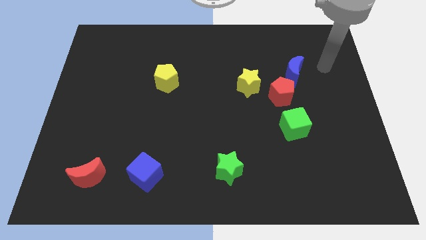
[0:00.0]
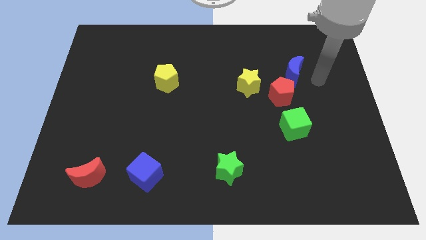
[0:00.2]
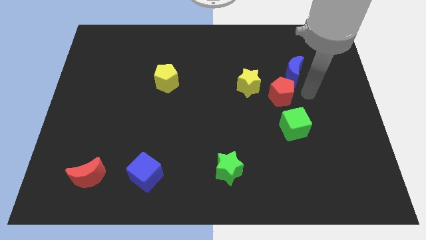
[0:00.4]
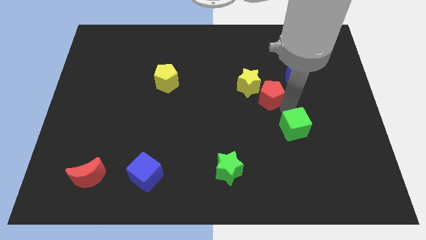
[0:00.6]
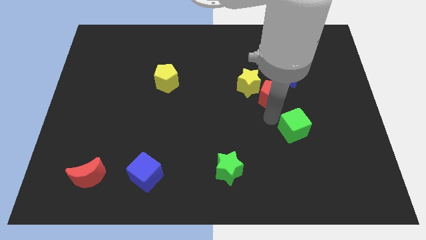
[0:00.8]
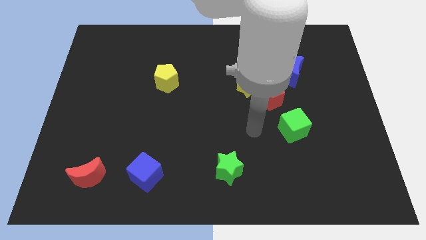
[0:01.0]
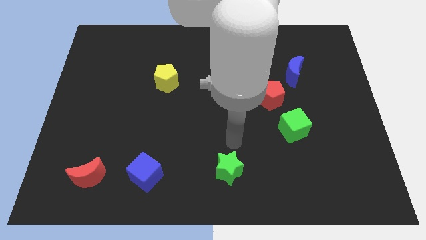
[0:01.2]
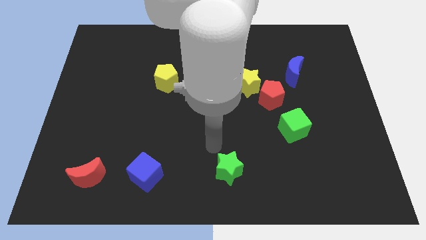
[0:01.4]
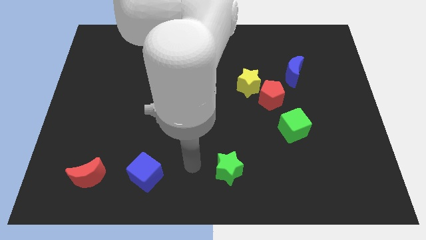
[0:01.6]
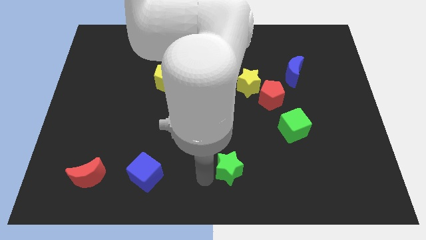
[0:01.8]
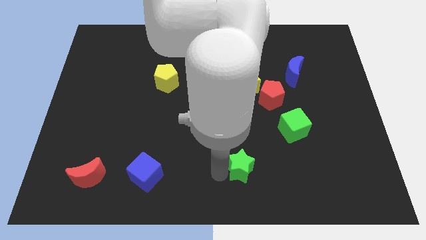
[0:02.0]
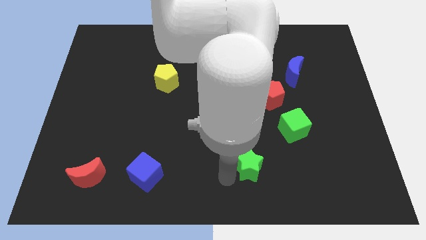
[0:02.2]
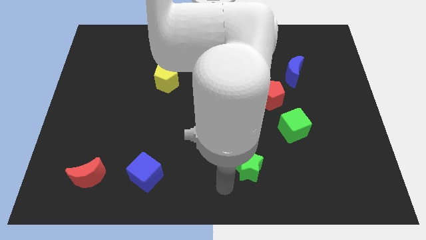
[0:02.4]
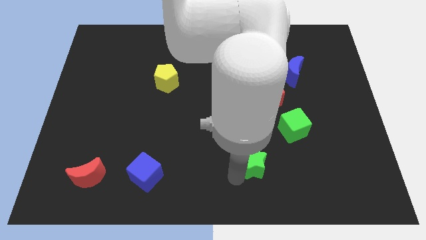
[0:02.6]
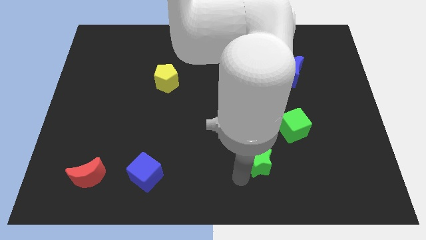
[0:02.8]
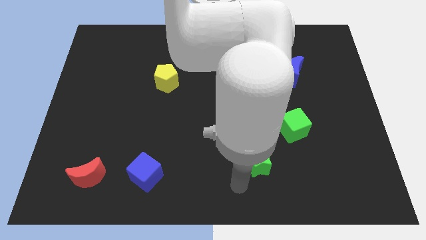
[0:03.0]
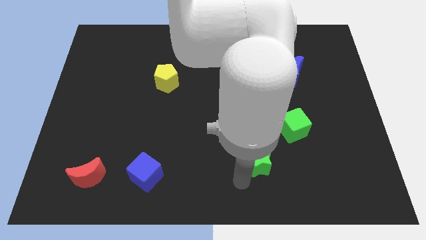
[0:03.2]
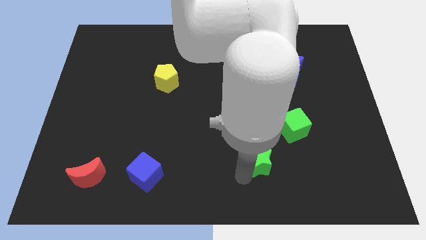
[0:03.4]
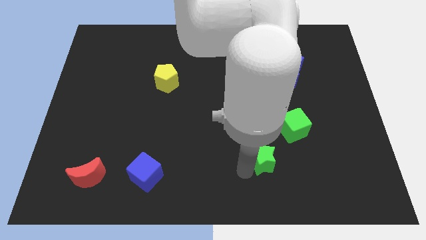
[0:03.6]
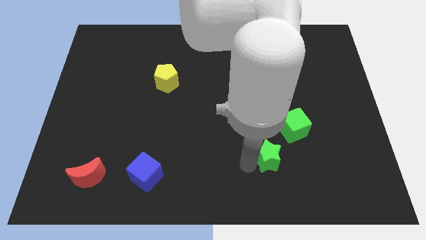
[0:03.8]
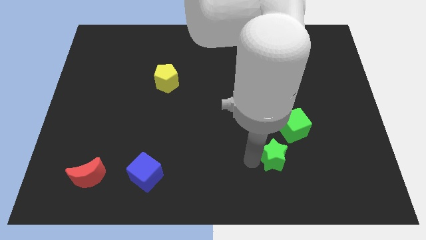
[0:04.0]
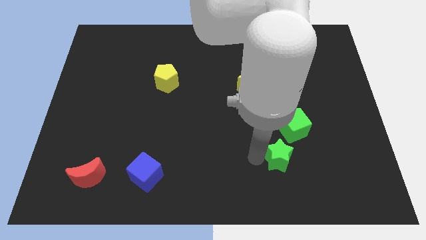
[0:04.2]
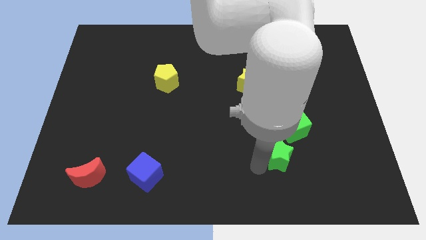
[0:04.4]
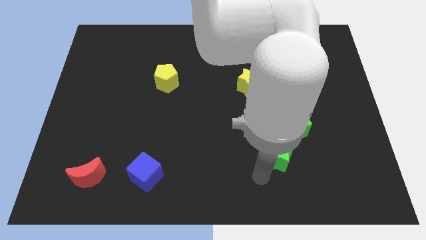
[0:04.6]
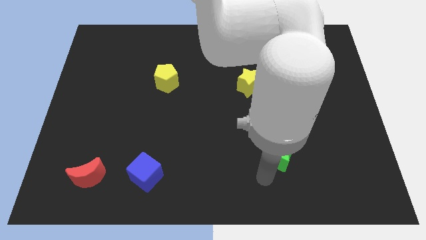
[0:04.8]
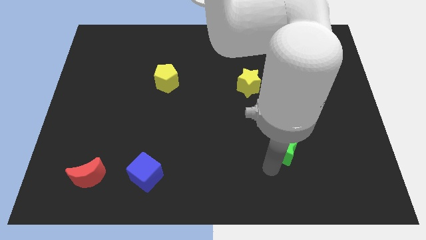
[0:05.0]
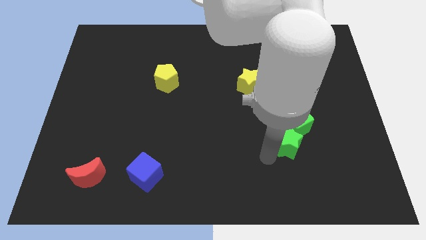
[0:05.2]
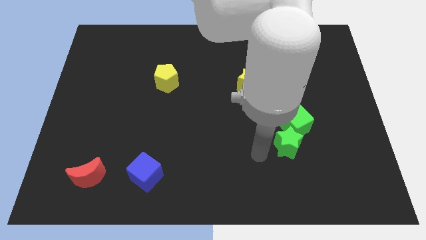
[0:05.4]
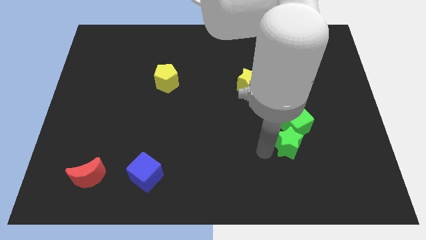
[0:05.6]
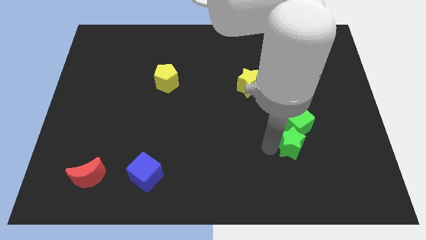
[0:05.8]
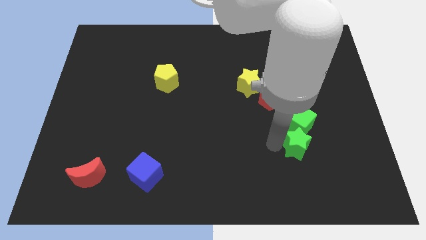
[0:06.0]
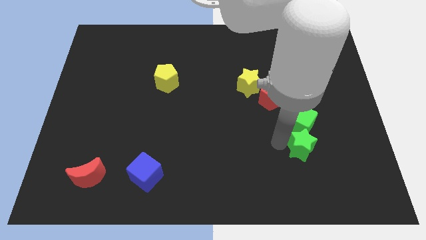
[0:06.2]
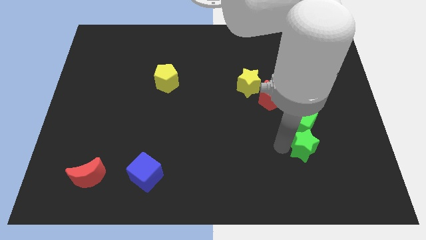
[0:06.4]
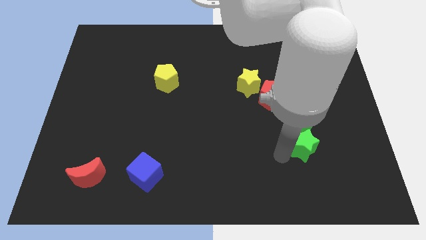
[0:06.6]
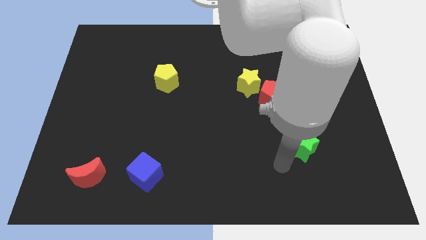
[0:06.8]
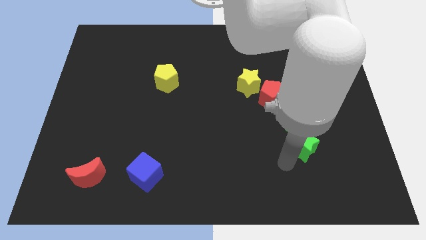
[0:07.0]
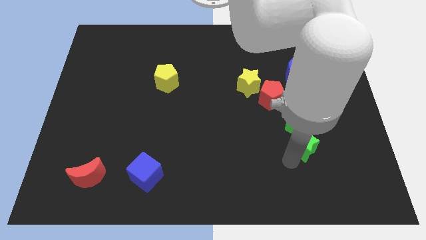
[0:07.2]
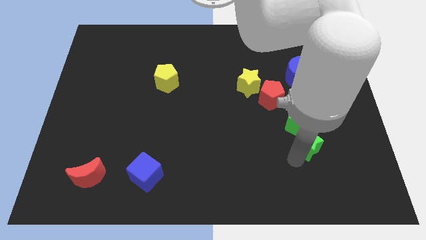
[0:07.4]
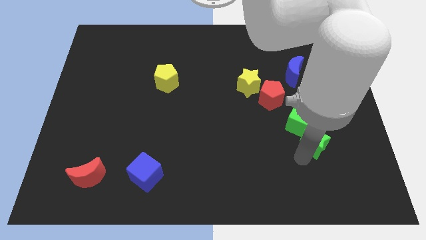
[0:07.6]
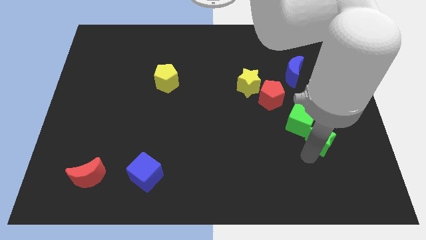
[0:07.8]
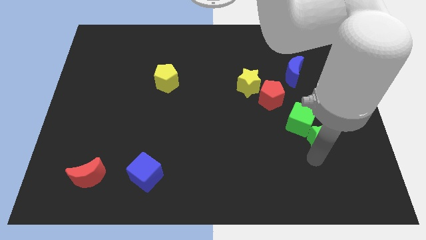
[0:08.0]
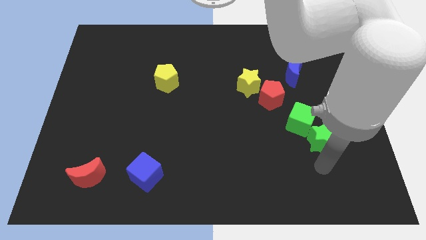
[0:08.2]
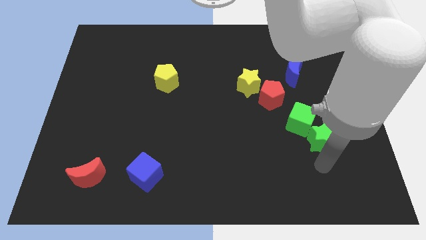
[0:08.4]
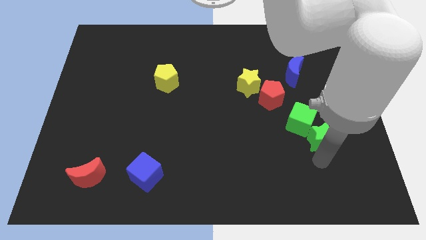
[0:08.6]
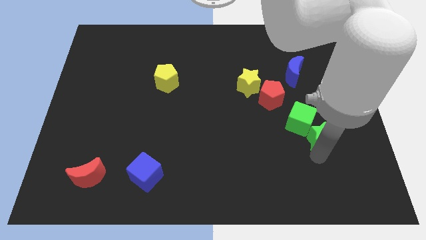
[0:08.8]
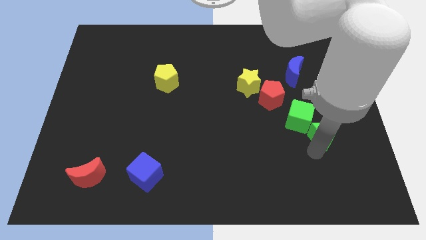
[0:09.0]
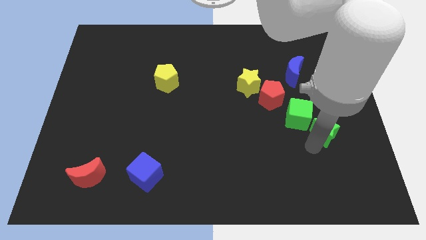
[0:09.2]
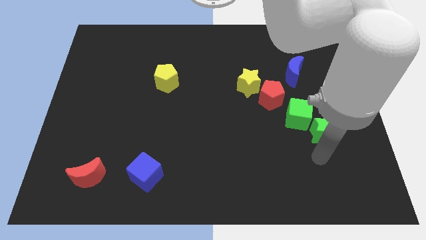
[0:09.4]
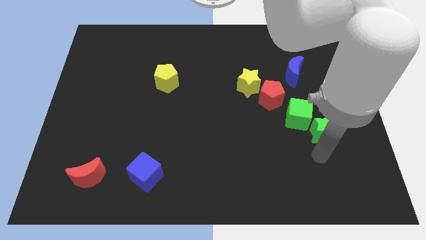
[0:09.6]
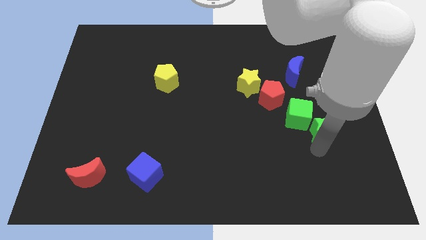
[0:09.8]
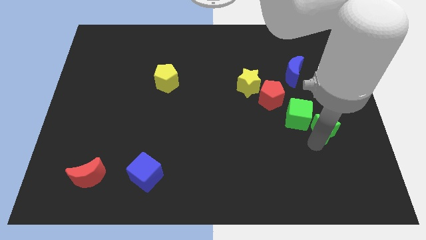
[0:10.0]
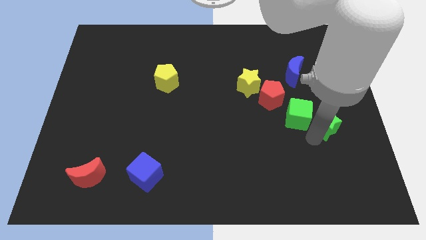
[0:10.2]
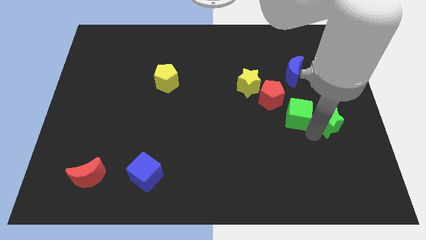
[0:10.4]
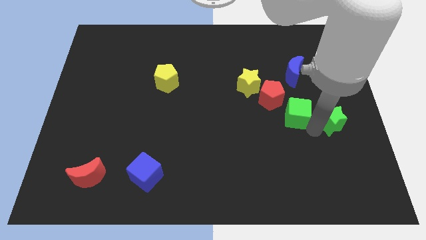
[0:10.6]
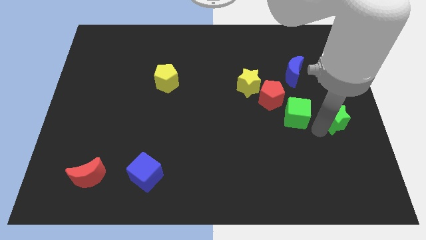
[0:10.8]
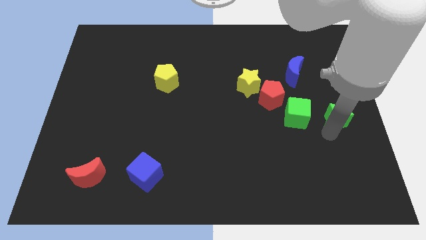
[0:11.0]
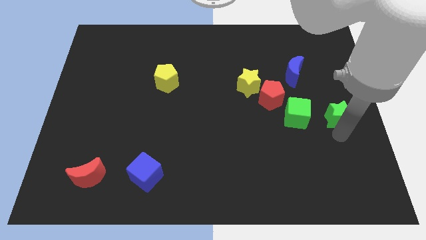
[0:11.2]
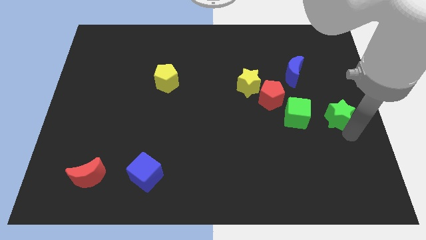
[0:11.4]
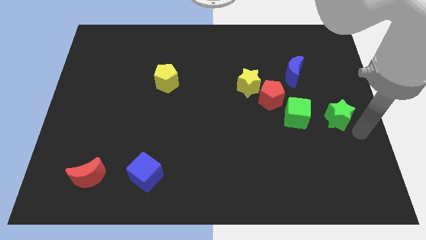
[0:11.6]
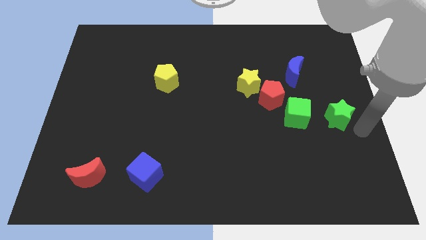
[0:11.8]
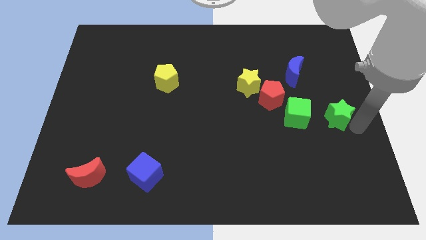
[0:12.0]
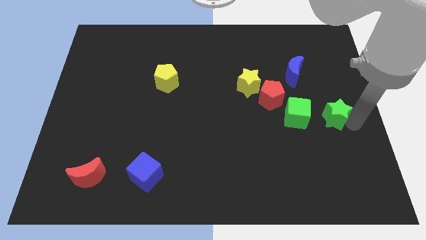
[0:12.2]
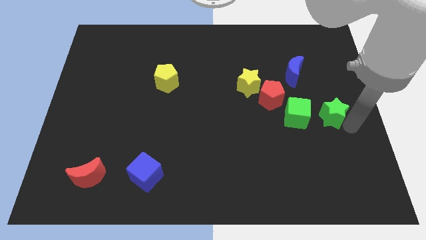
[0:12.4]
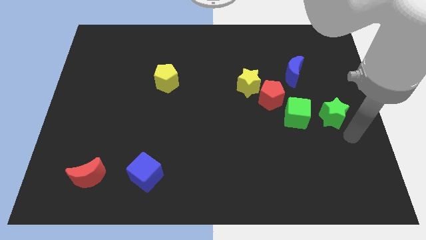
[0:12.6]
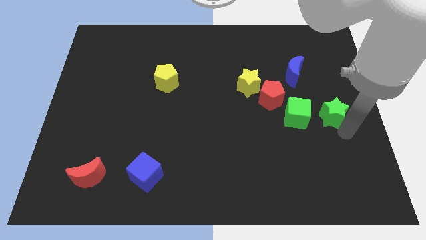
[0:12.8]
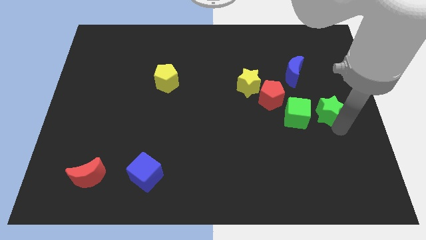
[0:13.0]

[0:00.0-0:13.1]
put the green star to the right side of the red pentagon

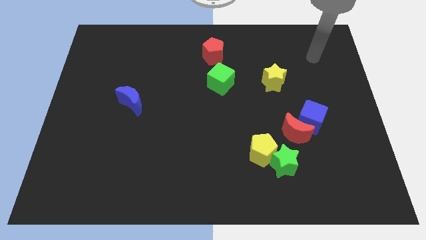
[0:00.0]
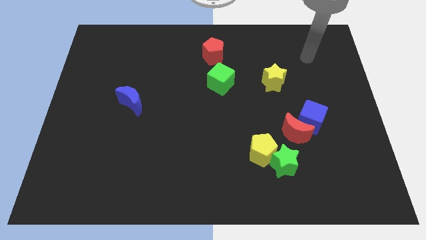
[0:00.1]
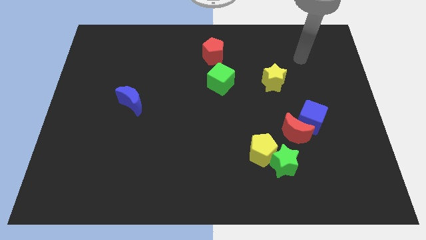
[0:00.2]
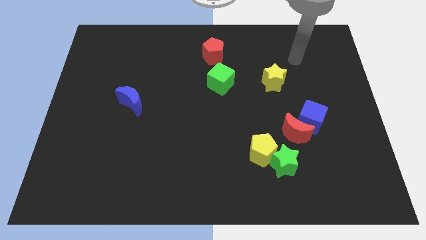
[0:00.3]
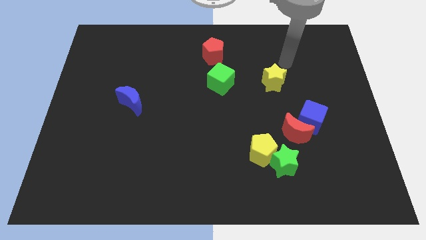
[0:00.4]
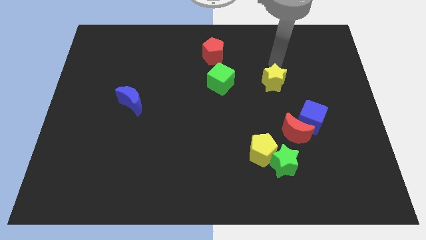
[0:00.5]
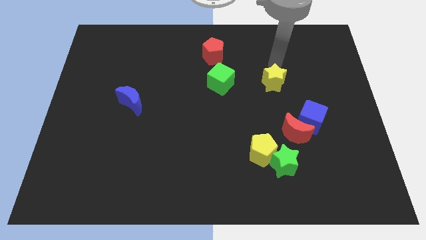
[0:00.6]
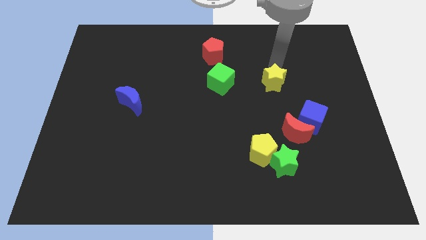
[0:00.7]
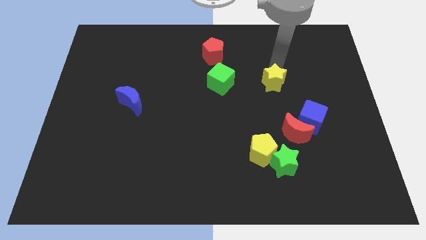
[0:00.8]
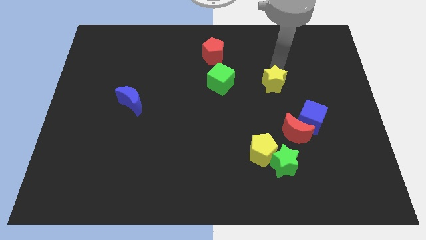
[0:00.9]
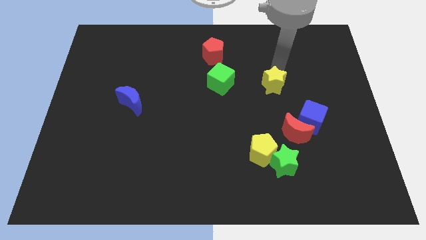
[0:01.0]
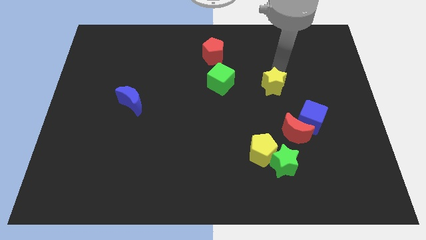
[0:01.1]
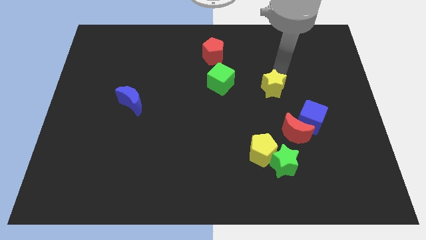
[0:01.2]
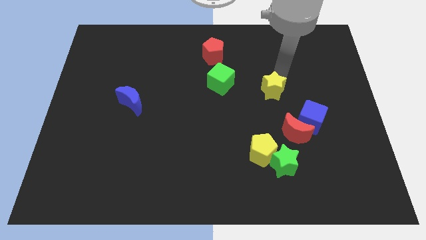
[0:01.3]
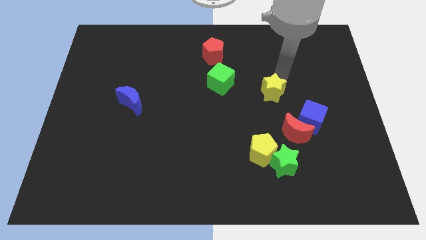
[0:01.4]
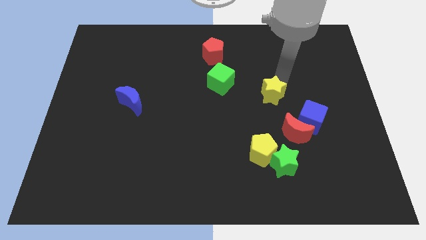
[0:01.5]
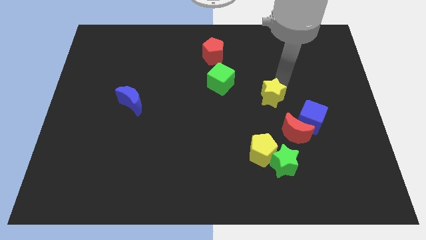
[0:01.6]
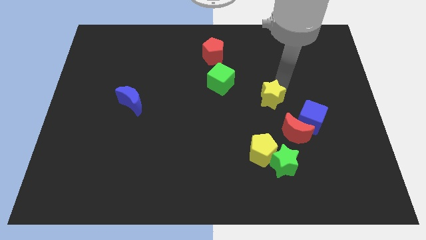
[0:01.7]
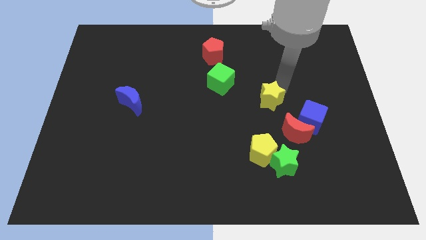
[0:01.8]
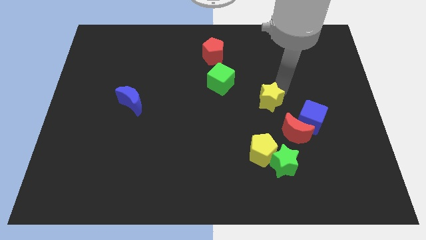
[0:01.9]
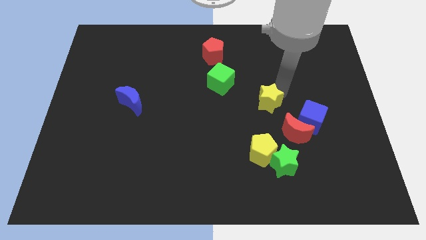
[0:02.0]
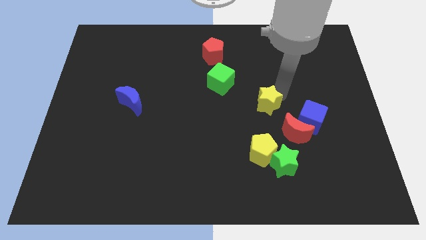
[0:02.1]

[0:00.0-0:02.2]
put the yellow star to the top of the green star
